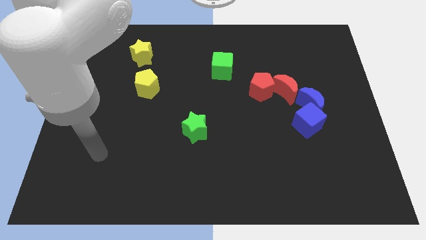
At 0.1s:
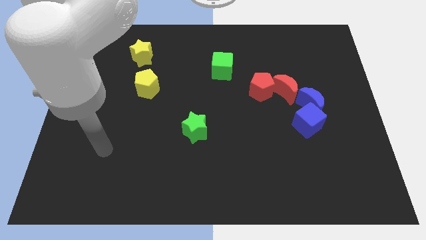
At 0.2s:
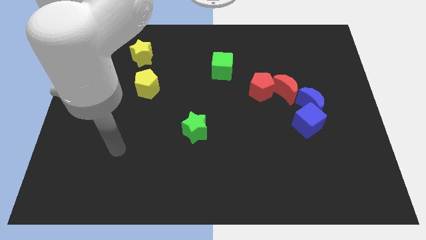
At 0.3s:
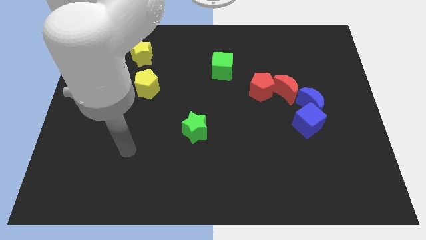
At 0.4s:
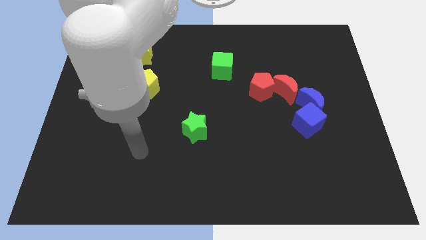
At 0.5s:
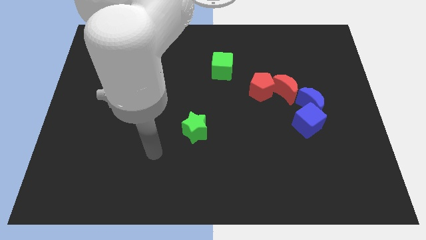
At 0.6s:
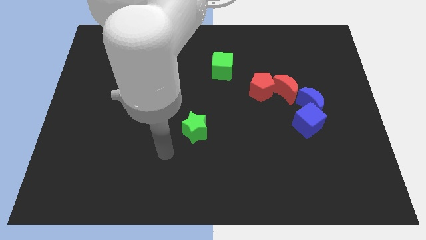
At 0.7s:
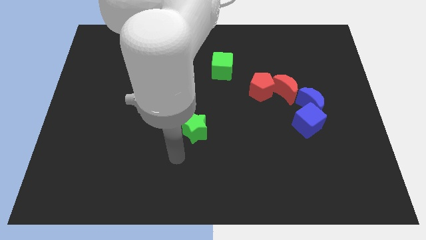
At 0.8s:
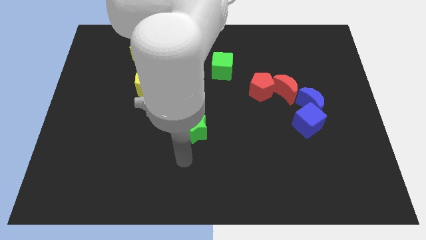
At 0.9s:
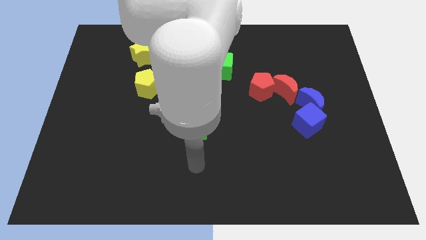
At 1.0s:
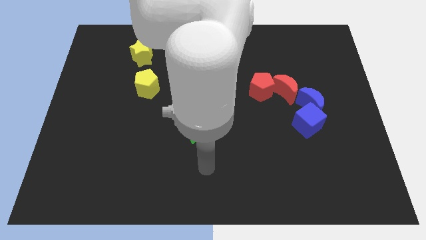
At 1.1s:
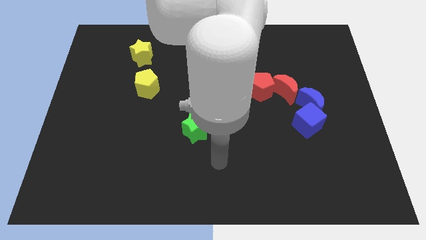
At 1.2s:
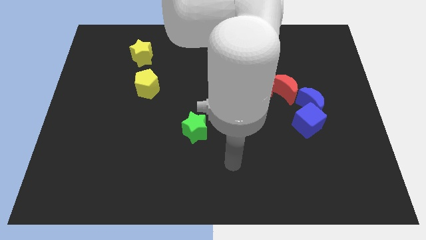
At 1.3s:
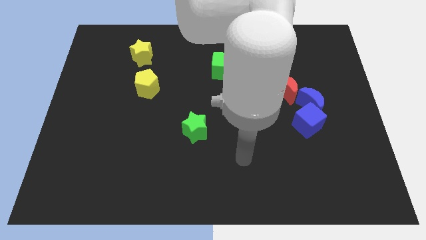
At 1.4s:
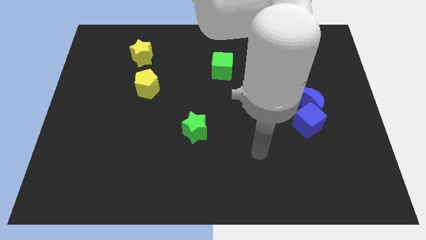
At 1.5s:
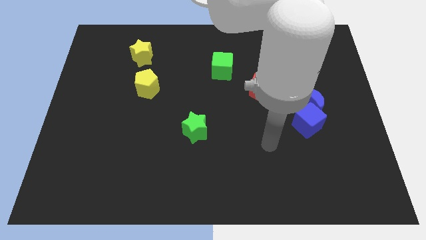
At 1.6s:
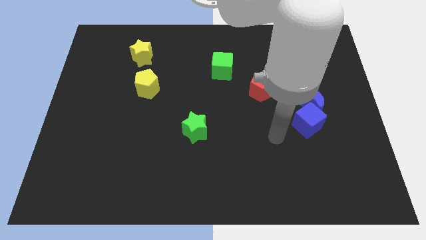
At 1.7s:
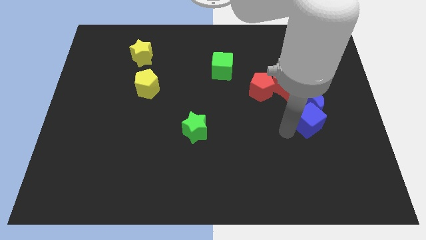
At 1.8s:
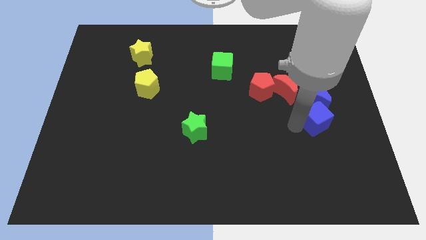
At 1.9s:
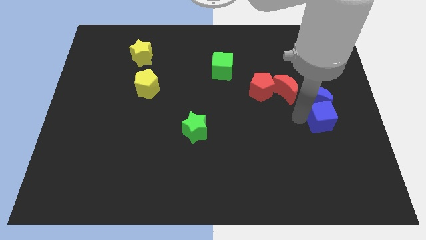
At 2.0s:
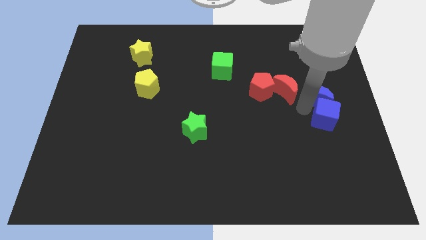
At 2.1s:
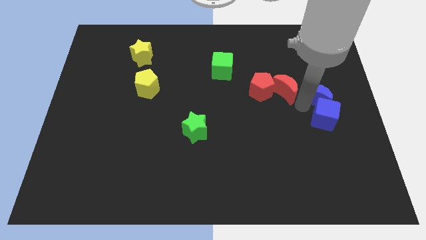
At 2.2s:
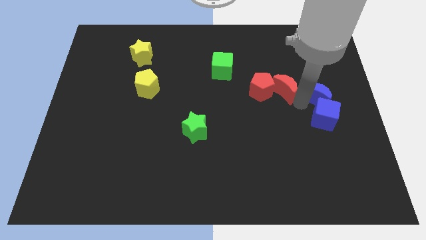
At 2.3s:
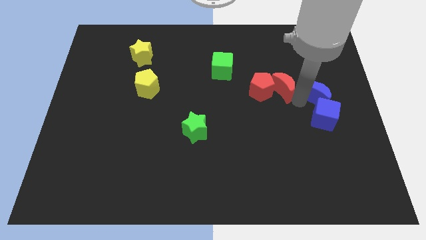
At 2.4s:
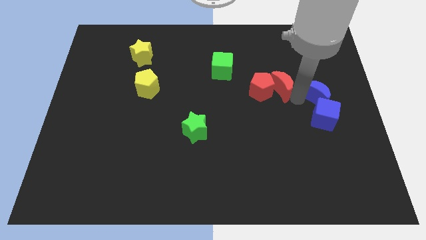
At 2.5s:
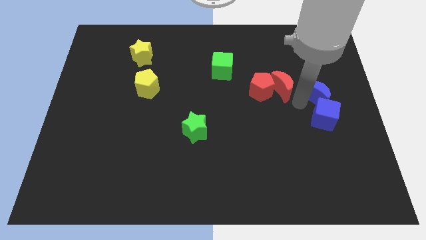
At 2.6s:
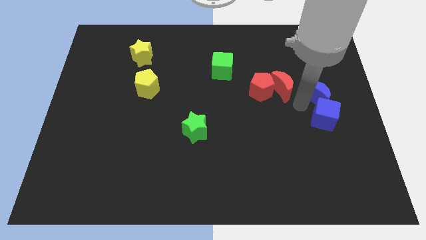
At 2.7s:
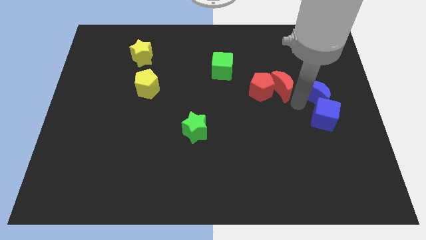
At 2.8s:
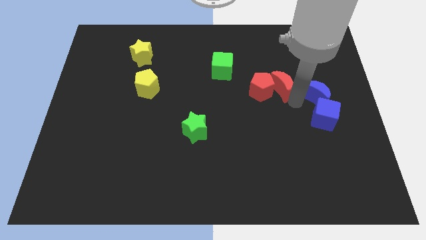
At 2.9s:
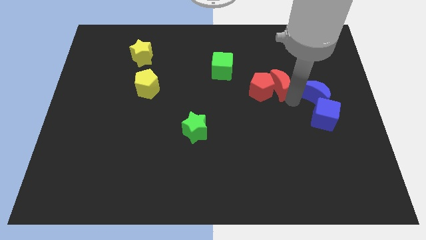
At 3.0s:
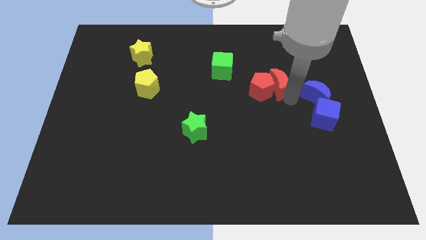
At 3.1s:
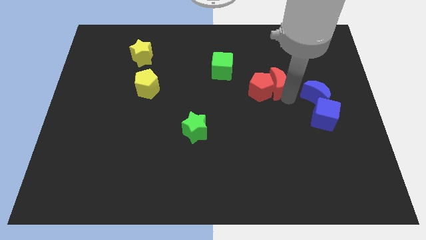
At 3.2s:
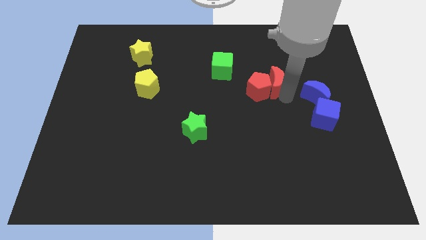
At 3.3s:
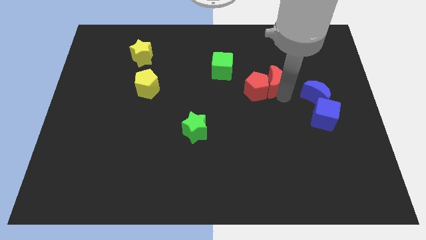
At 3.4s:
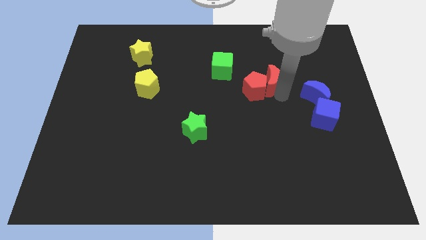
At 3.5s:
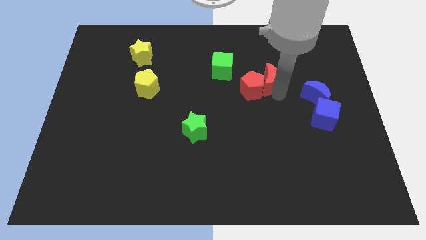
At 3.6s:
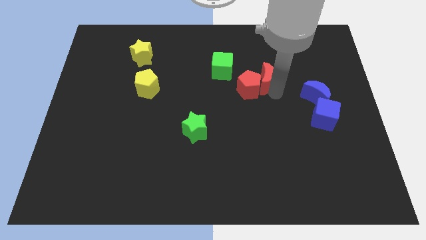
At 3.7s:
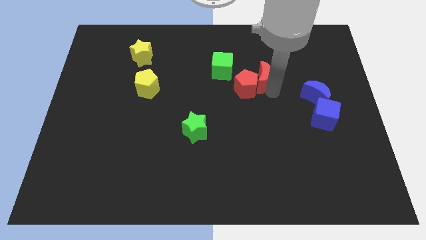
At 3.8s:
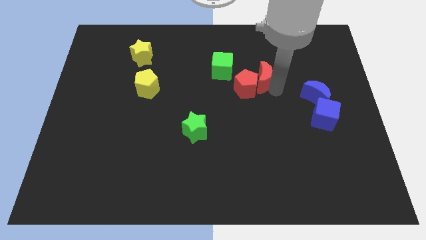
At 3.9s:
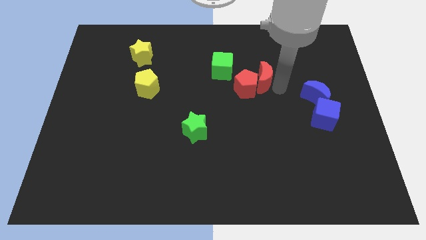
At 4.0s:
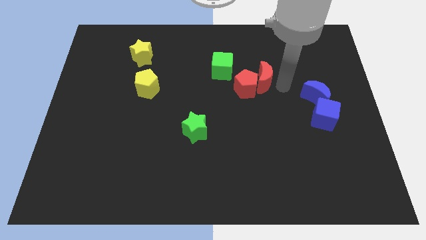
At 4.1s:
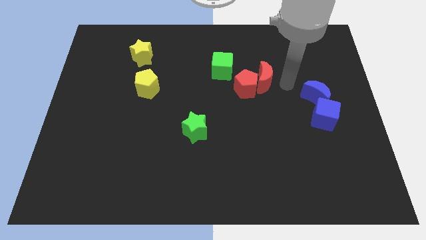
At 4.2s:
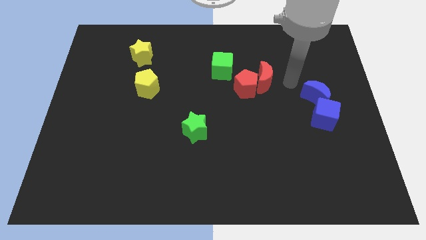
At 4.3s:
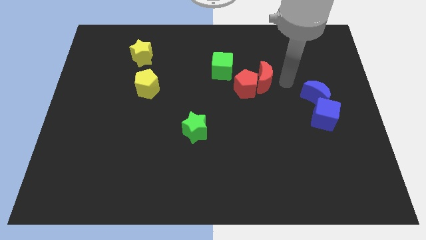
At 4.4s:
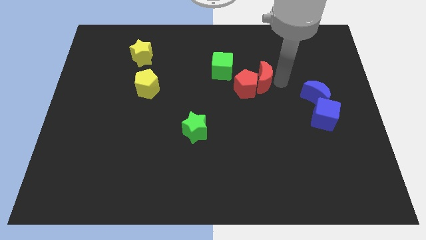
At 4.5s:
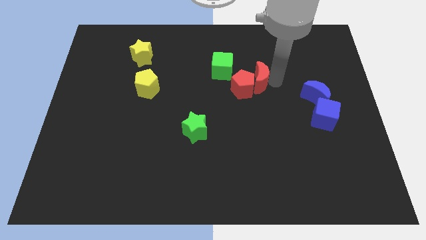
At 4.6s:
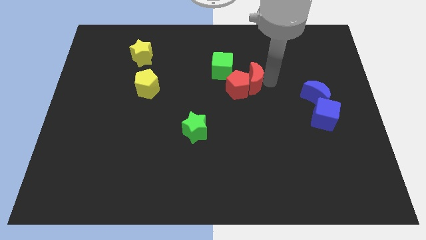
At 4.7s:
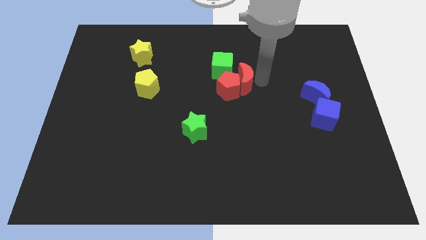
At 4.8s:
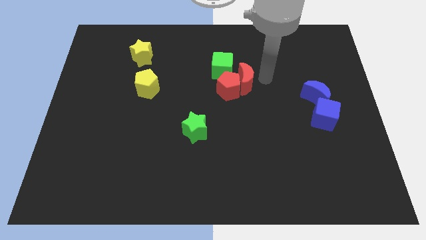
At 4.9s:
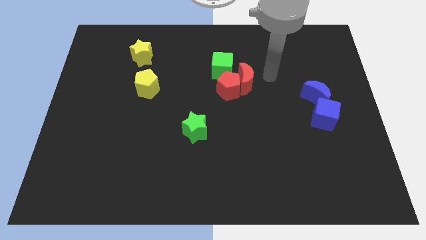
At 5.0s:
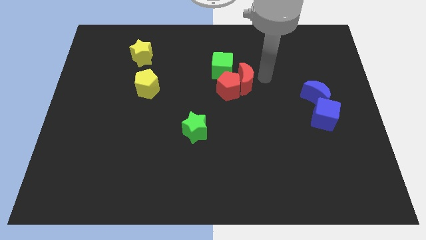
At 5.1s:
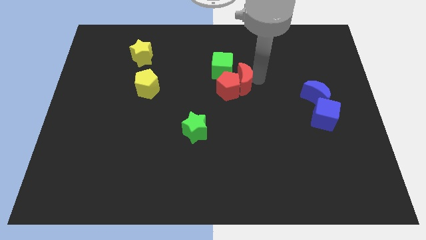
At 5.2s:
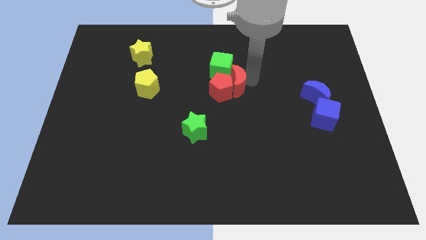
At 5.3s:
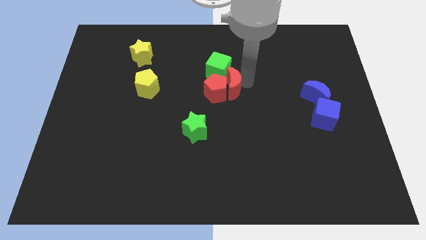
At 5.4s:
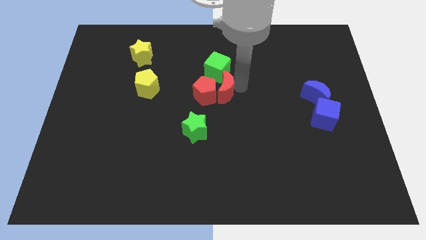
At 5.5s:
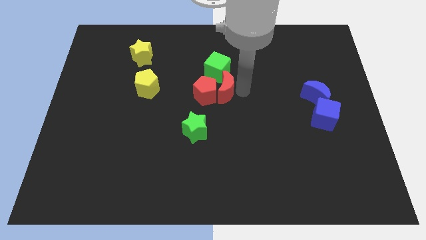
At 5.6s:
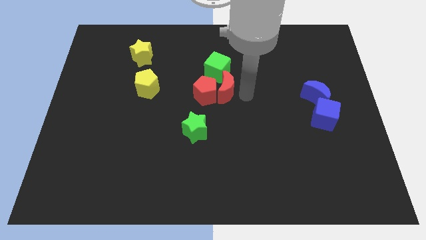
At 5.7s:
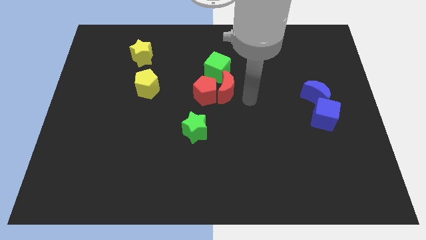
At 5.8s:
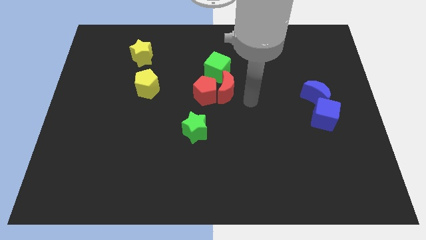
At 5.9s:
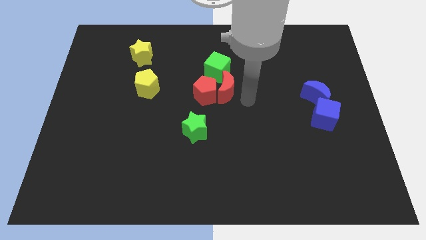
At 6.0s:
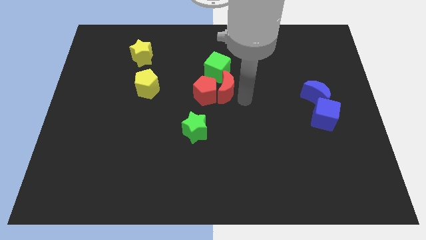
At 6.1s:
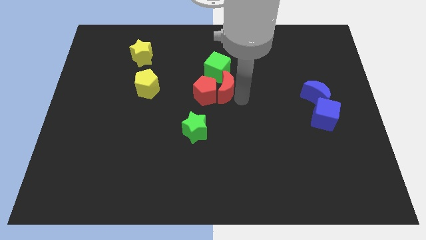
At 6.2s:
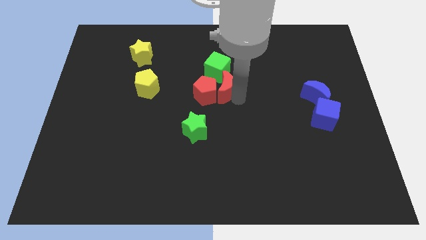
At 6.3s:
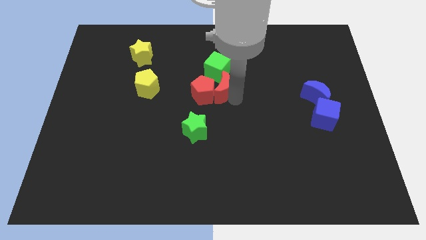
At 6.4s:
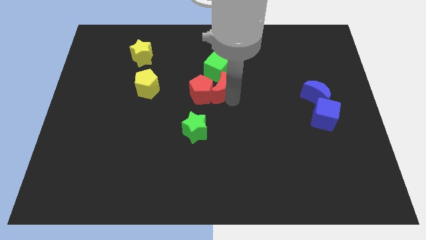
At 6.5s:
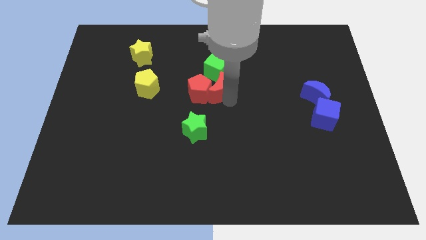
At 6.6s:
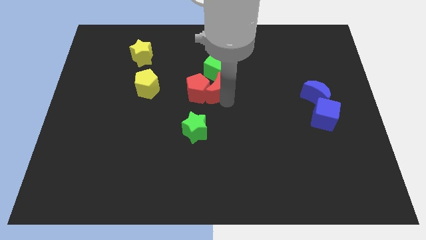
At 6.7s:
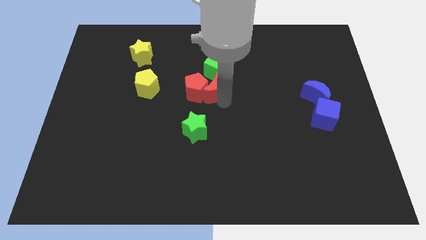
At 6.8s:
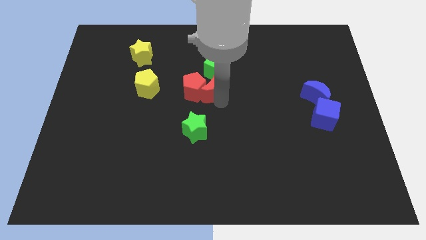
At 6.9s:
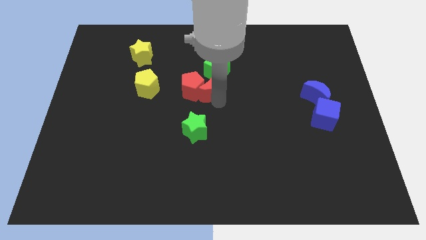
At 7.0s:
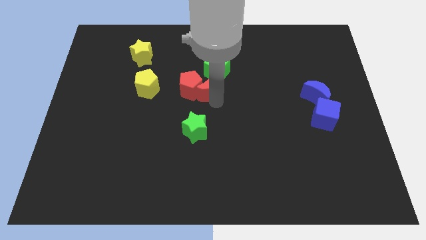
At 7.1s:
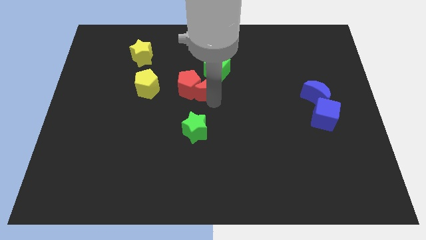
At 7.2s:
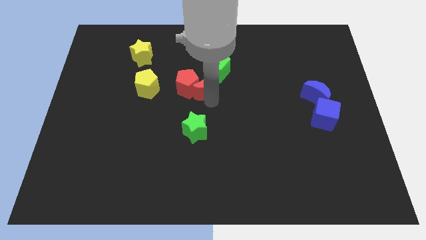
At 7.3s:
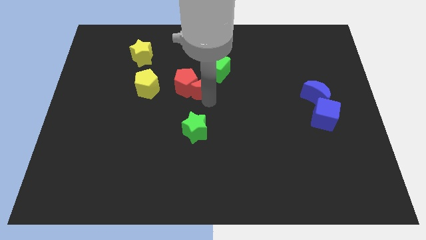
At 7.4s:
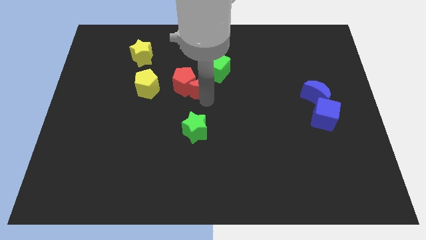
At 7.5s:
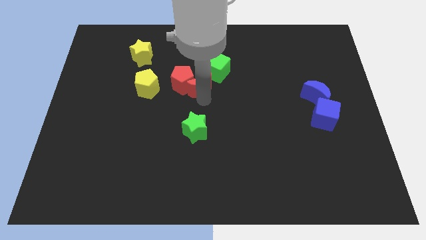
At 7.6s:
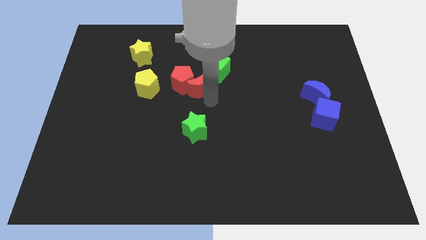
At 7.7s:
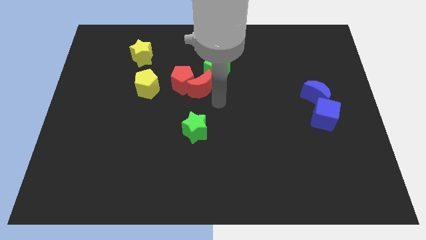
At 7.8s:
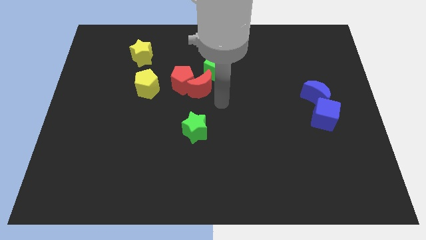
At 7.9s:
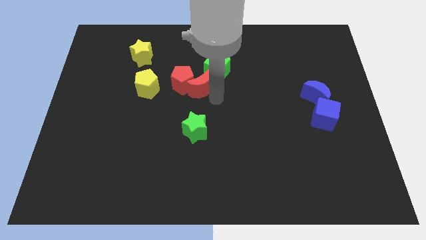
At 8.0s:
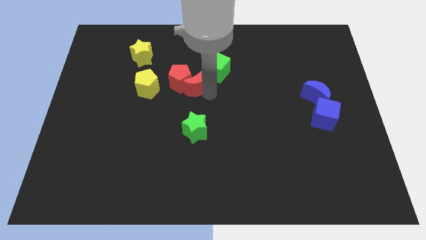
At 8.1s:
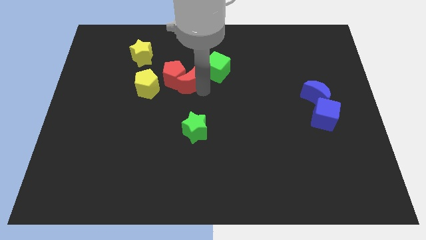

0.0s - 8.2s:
push the red moon to the left side of the green cube
